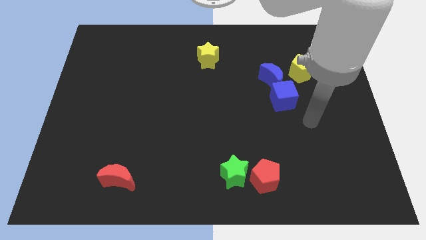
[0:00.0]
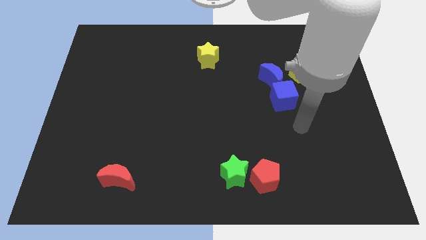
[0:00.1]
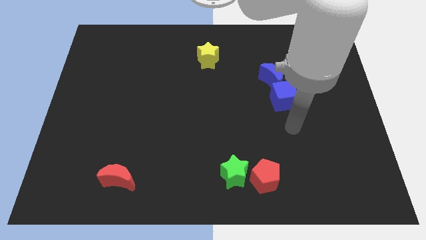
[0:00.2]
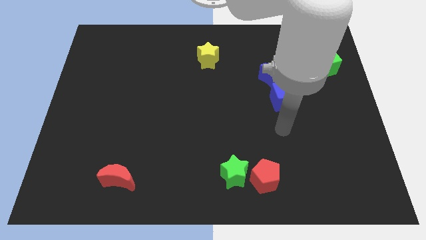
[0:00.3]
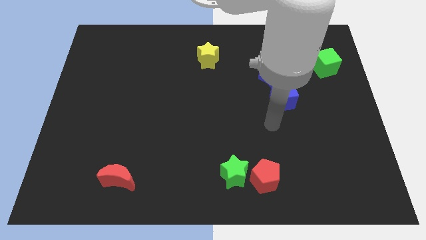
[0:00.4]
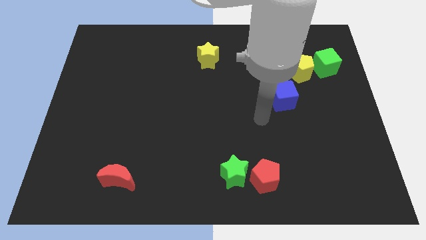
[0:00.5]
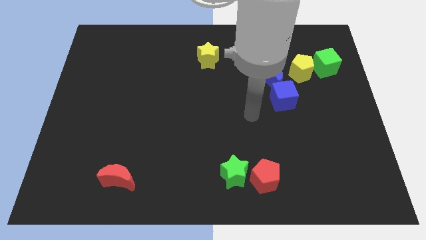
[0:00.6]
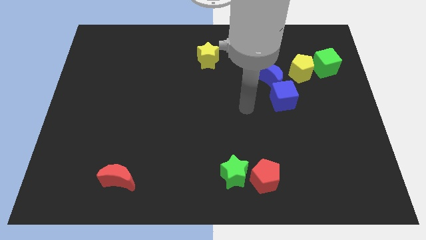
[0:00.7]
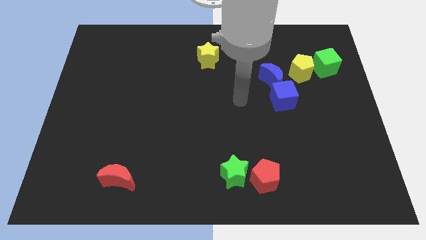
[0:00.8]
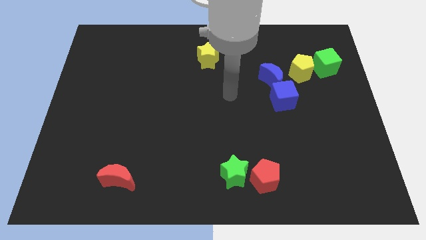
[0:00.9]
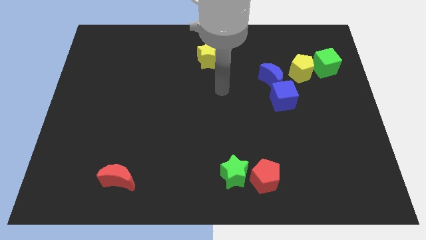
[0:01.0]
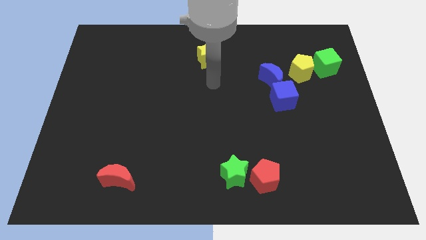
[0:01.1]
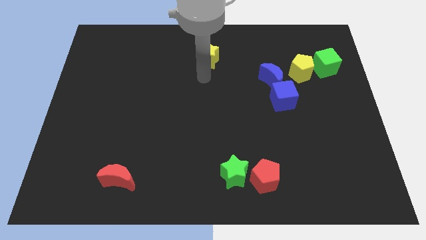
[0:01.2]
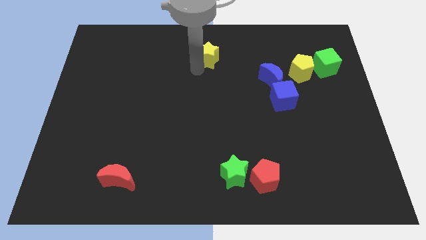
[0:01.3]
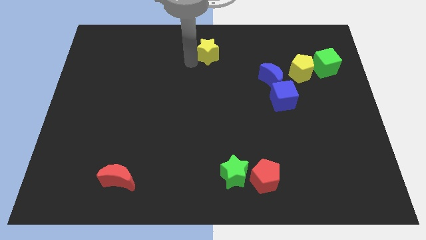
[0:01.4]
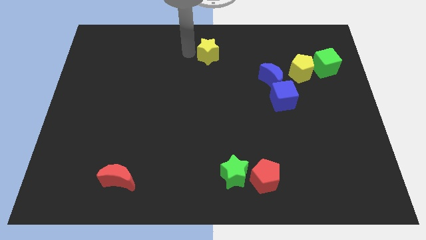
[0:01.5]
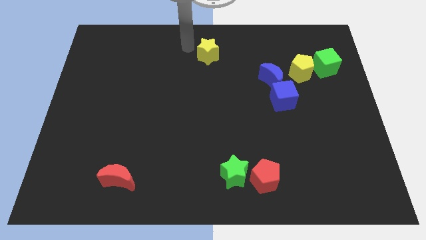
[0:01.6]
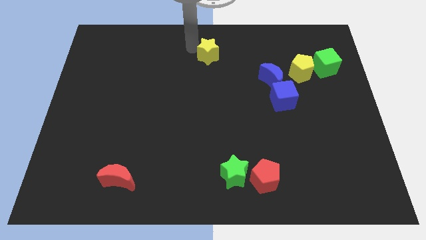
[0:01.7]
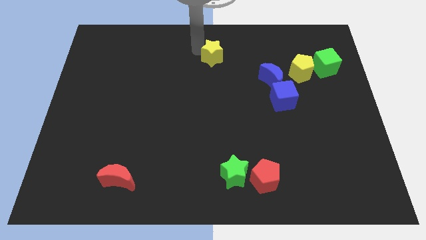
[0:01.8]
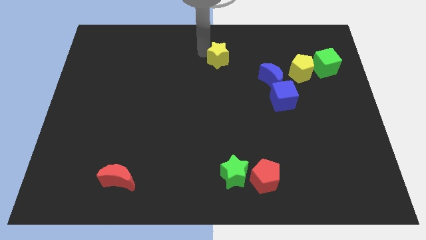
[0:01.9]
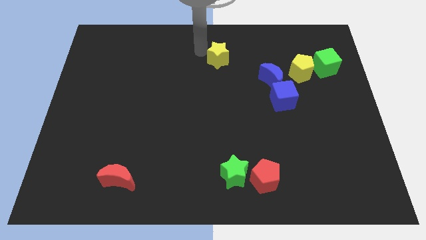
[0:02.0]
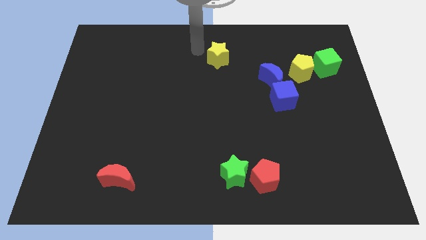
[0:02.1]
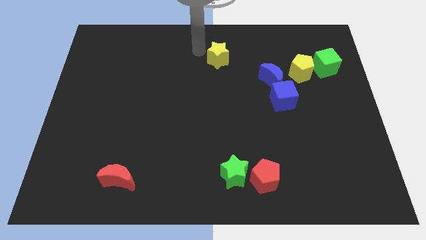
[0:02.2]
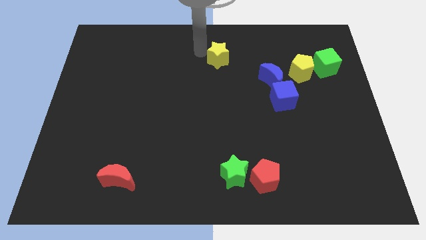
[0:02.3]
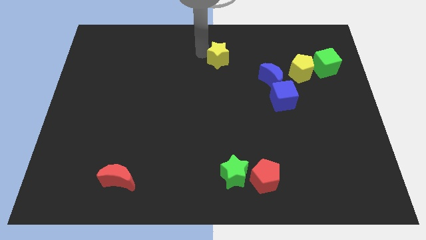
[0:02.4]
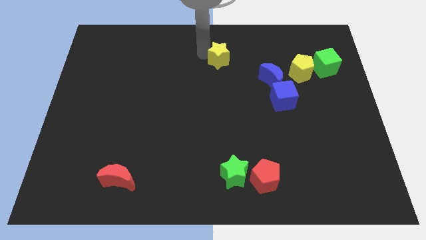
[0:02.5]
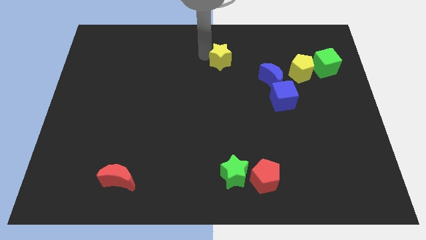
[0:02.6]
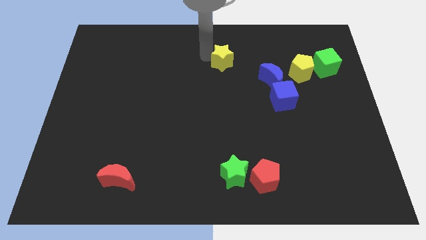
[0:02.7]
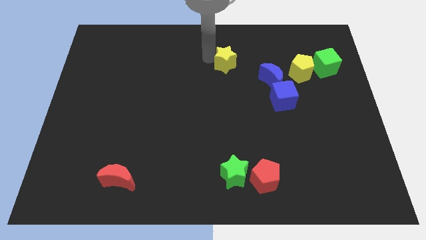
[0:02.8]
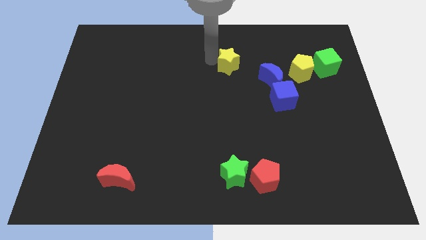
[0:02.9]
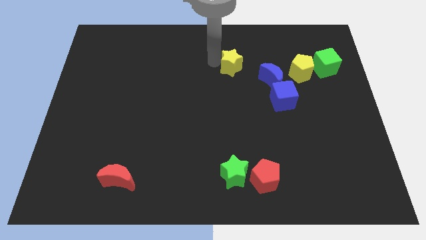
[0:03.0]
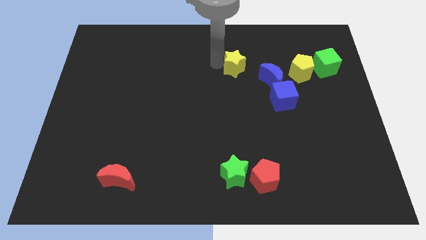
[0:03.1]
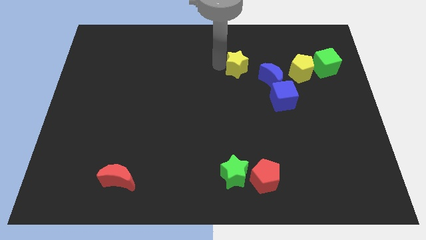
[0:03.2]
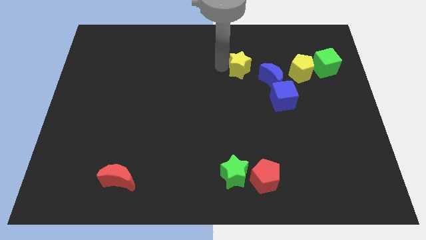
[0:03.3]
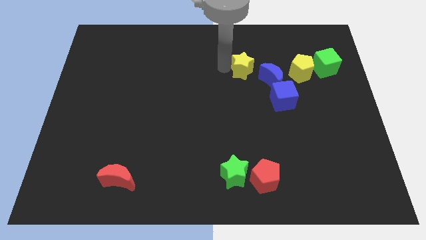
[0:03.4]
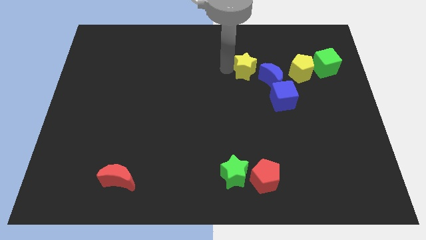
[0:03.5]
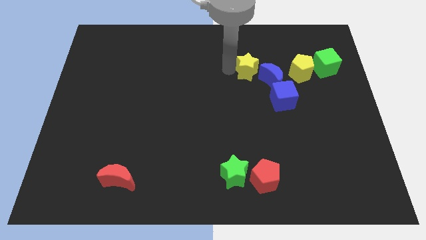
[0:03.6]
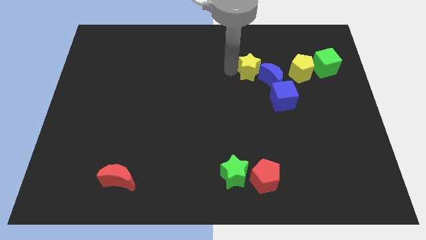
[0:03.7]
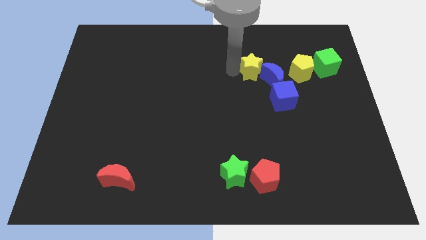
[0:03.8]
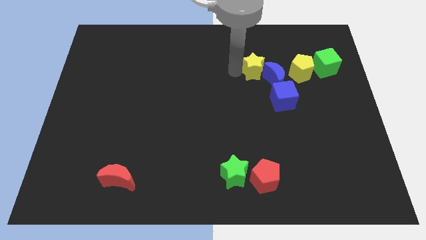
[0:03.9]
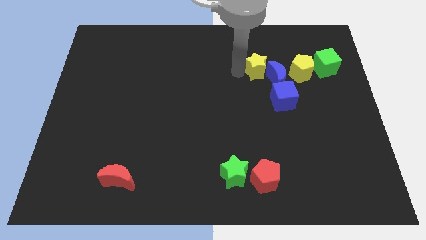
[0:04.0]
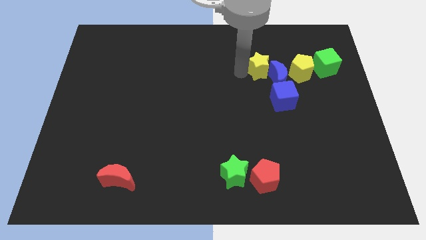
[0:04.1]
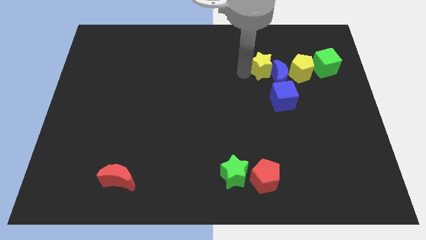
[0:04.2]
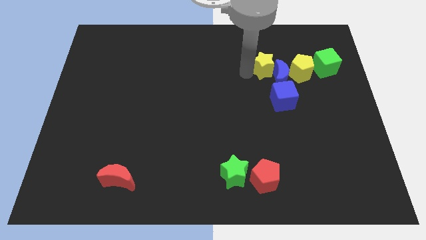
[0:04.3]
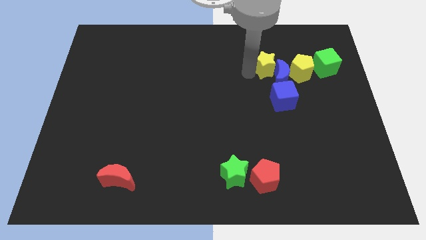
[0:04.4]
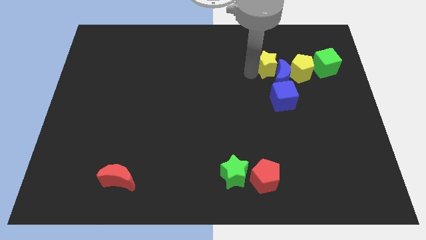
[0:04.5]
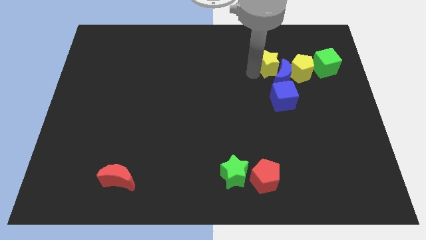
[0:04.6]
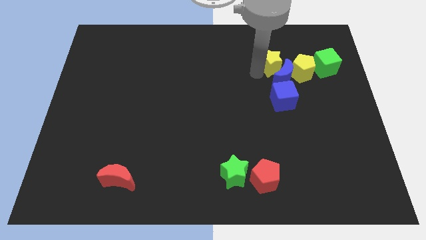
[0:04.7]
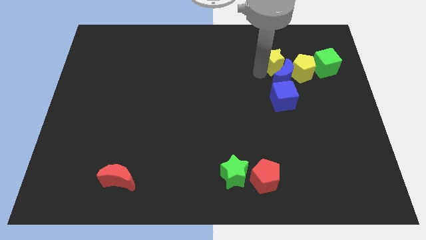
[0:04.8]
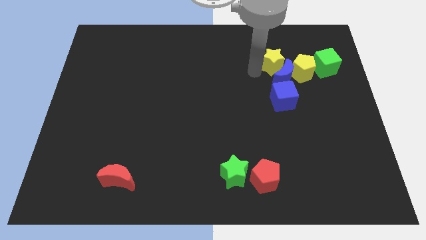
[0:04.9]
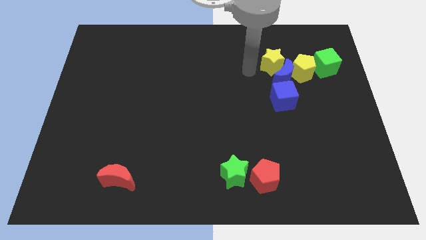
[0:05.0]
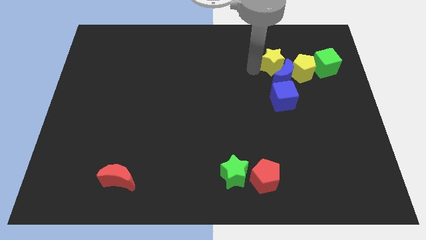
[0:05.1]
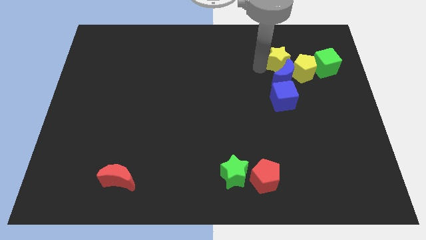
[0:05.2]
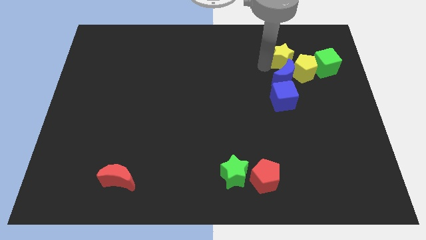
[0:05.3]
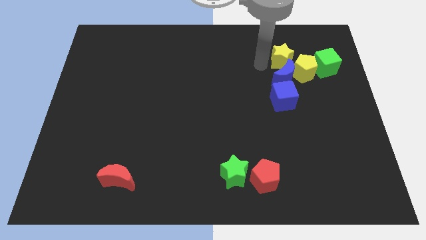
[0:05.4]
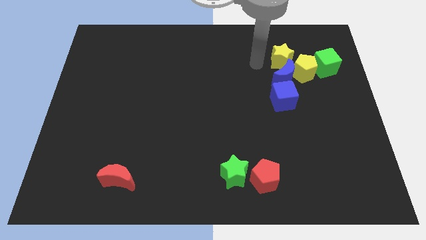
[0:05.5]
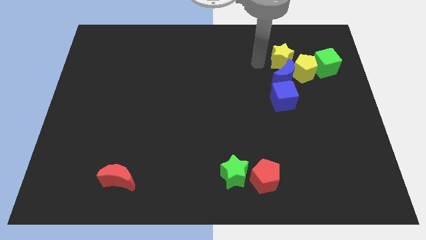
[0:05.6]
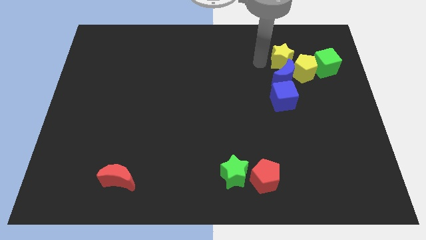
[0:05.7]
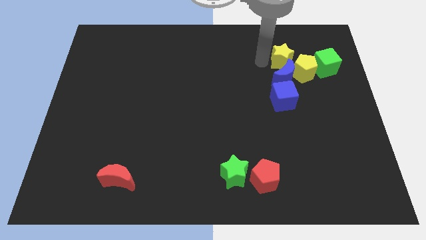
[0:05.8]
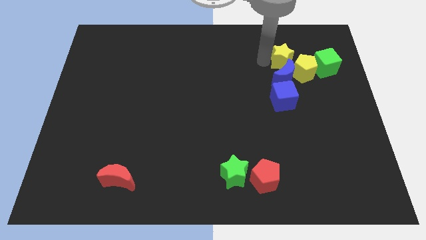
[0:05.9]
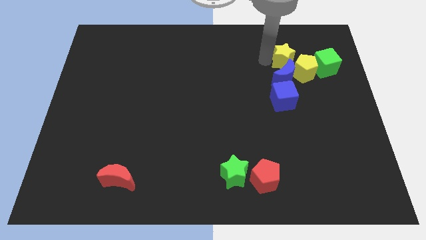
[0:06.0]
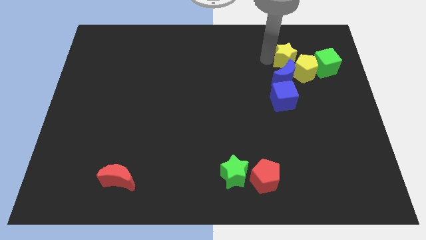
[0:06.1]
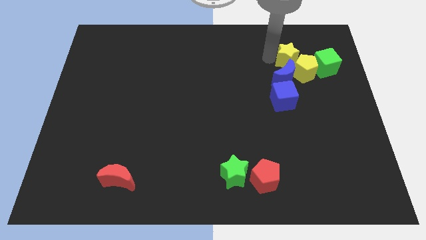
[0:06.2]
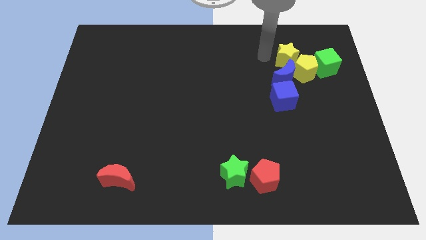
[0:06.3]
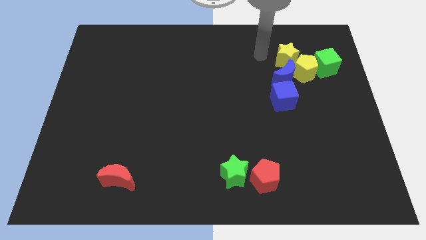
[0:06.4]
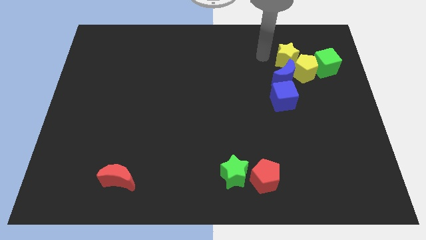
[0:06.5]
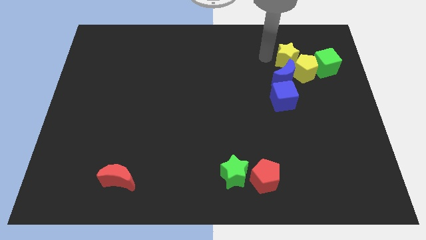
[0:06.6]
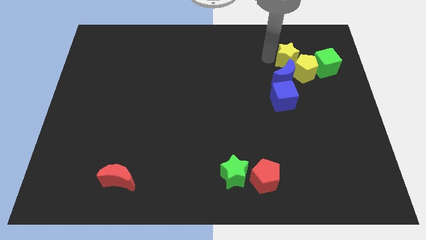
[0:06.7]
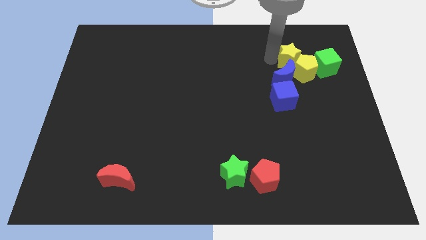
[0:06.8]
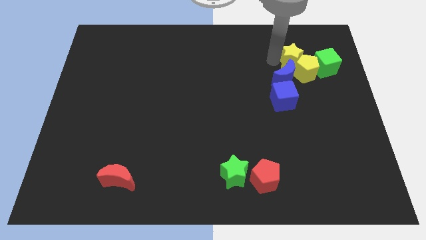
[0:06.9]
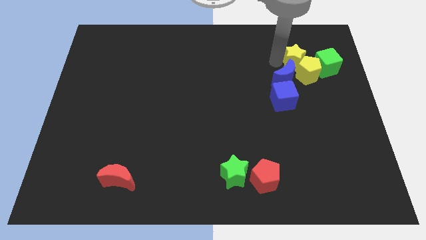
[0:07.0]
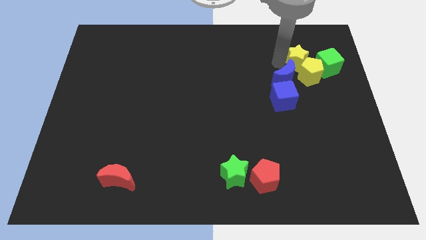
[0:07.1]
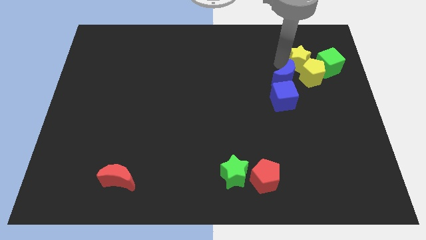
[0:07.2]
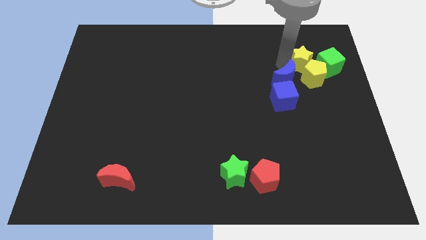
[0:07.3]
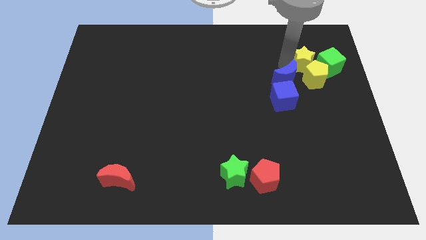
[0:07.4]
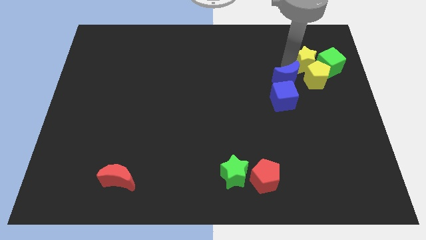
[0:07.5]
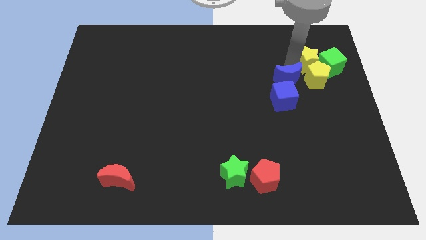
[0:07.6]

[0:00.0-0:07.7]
push the yellow star next to the green cube
